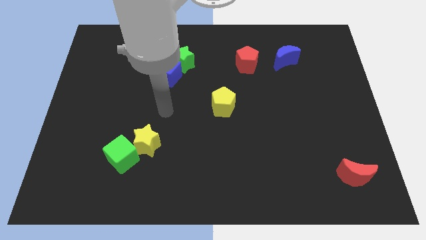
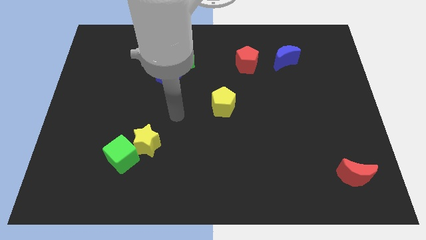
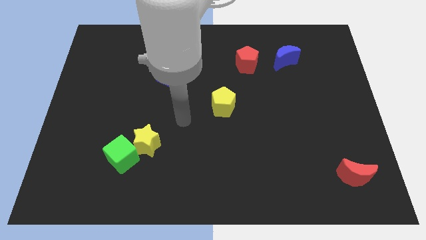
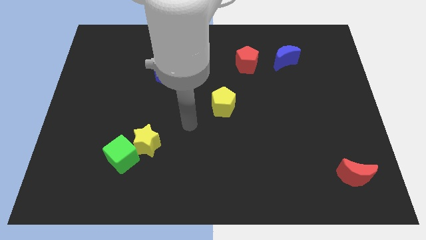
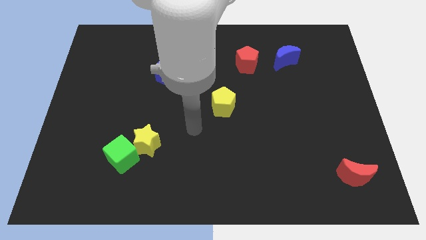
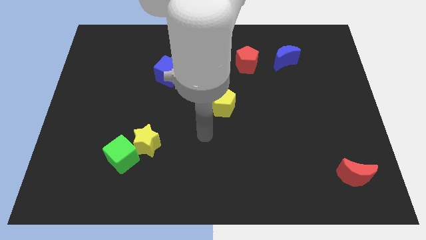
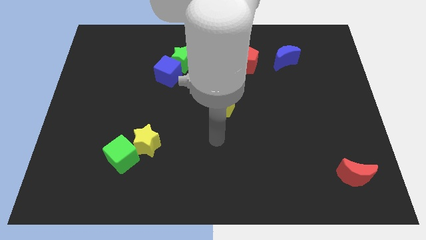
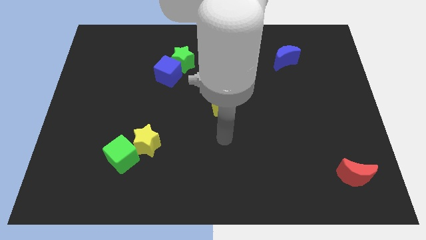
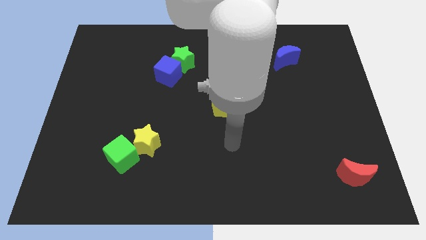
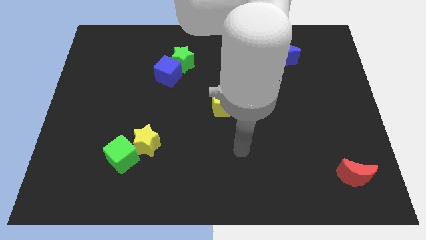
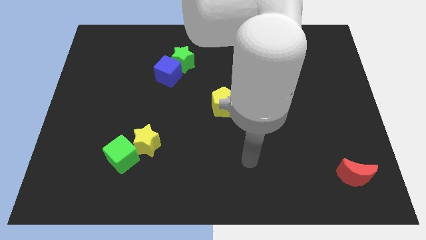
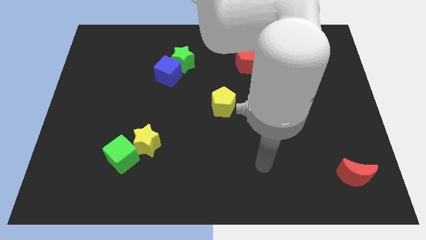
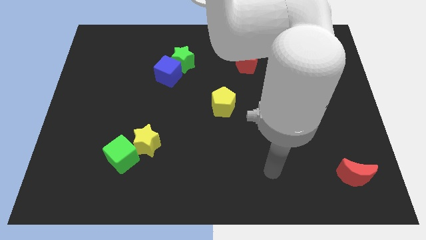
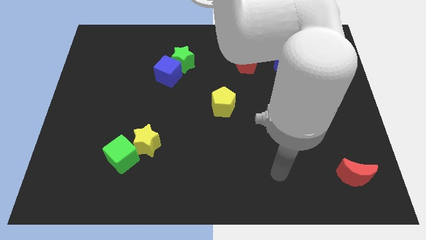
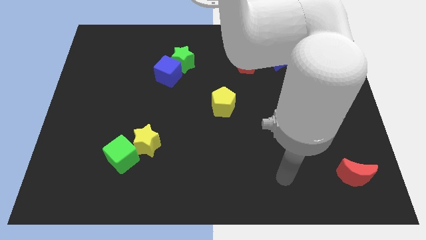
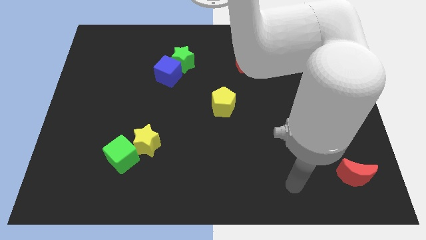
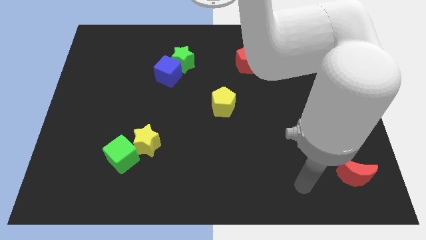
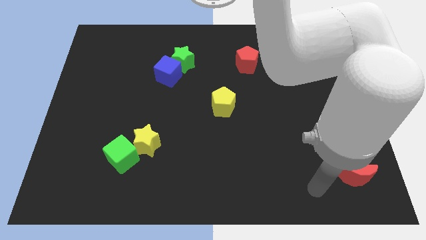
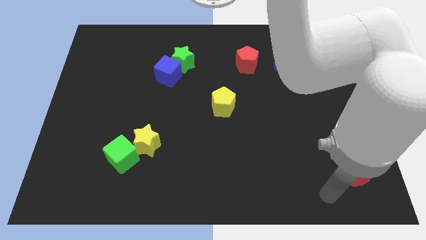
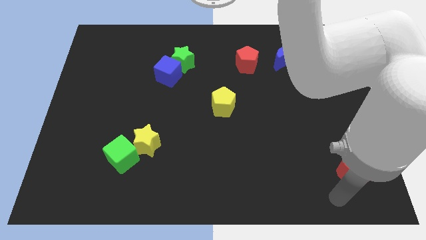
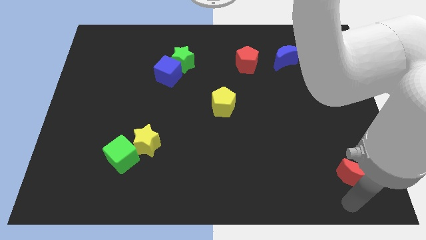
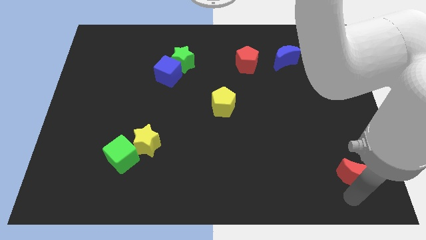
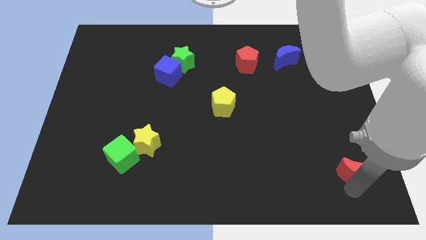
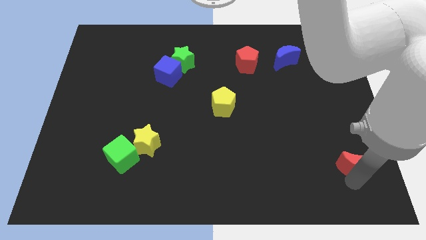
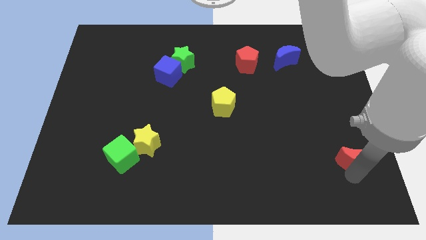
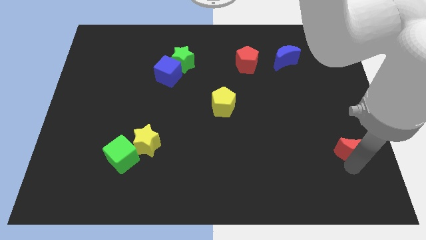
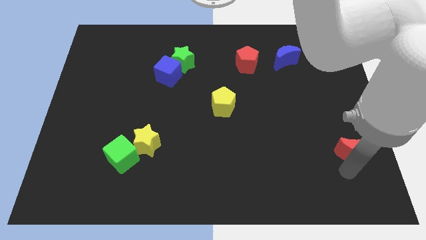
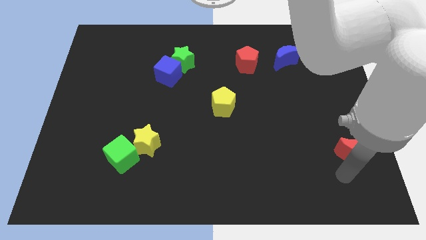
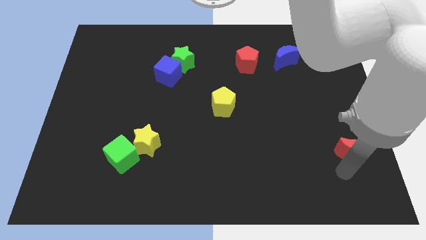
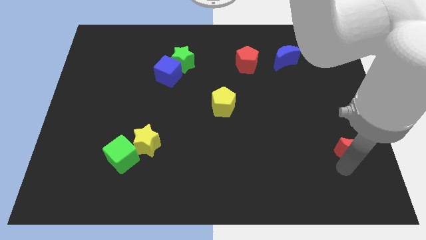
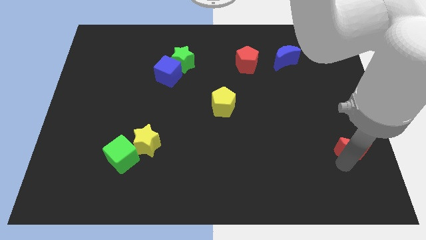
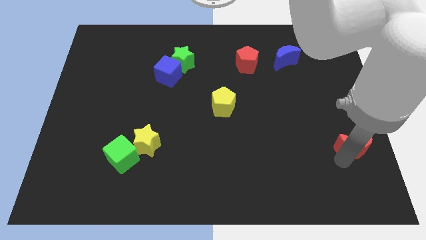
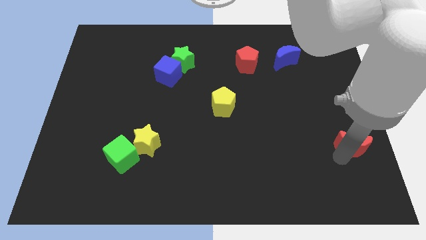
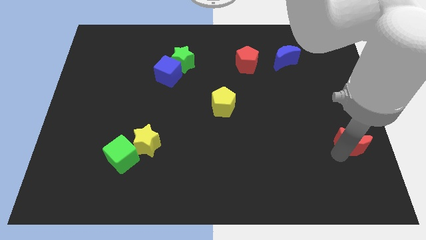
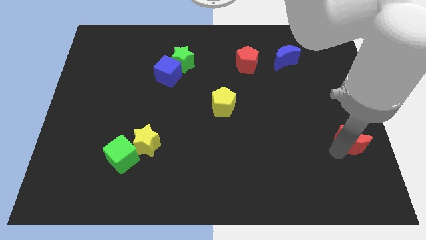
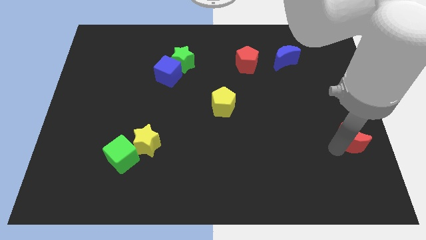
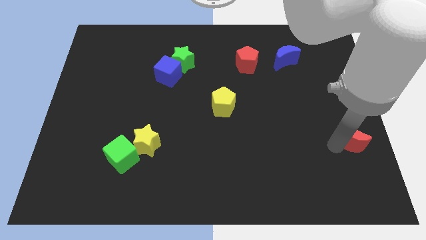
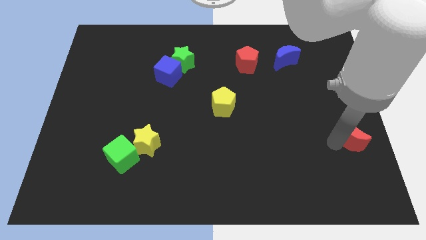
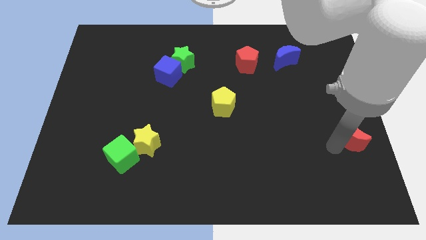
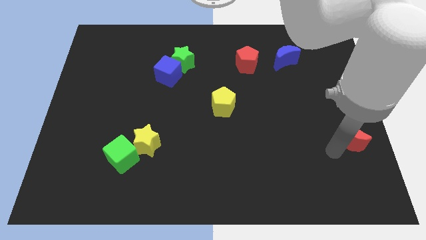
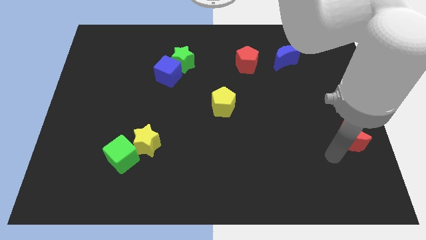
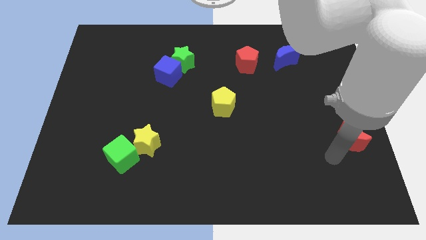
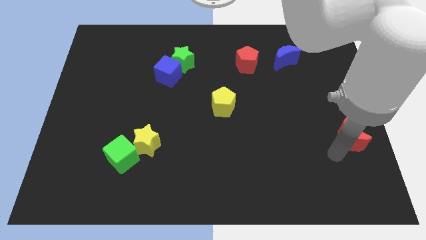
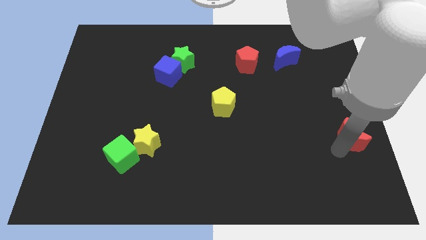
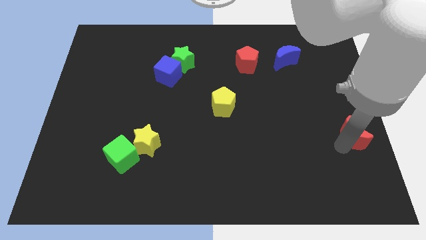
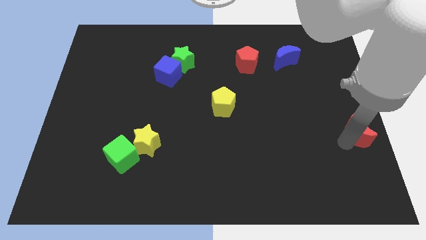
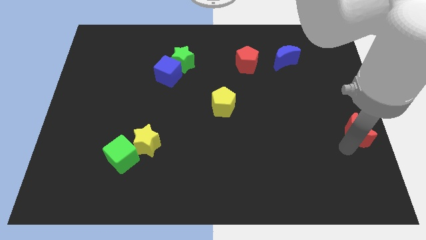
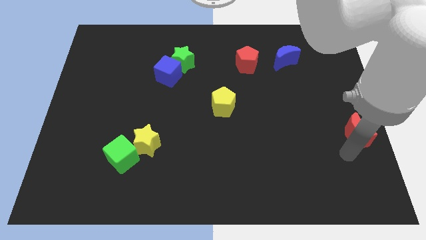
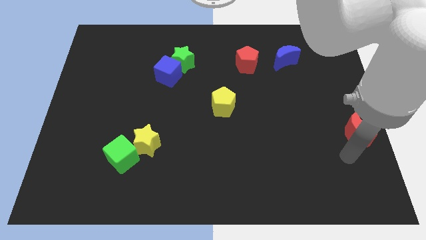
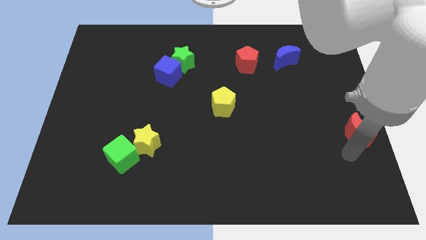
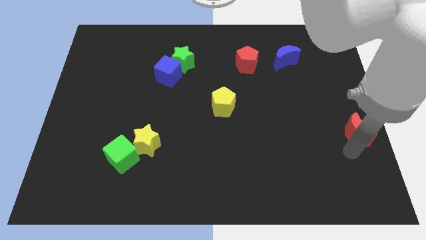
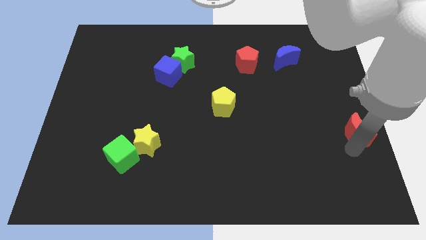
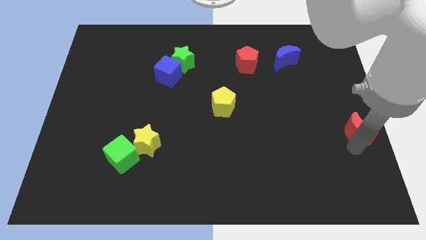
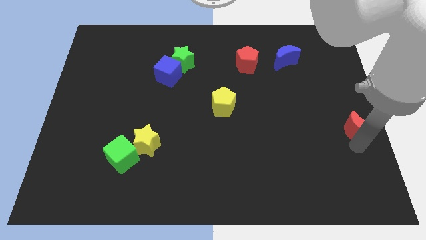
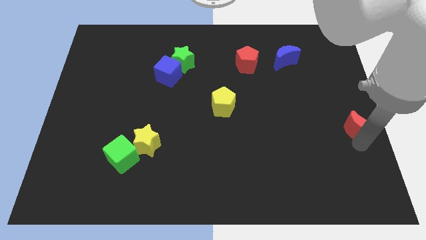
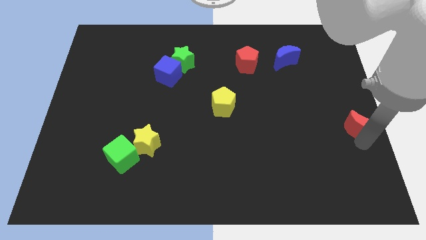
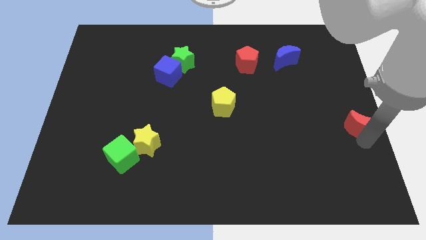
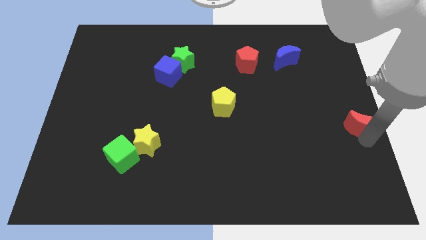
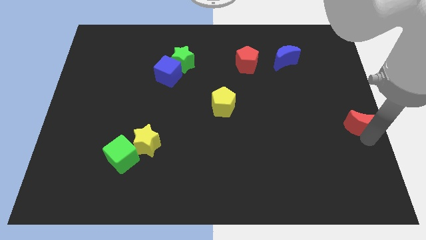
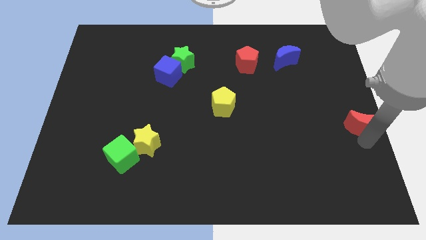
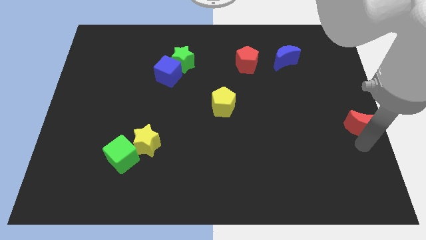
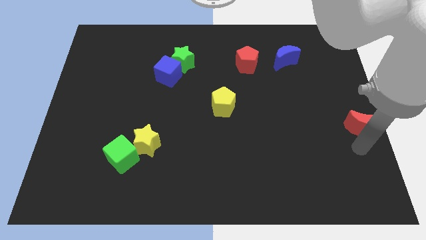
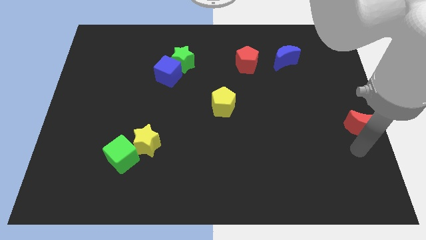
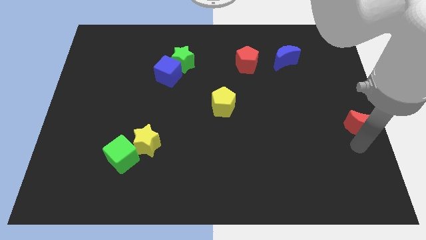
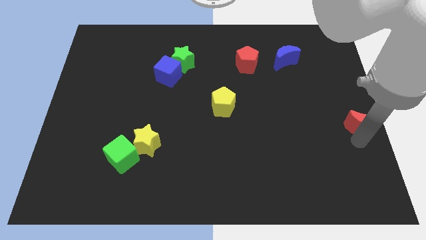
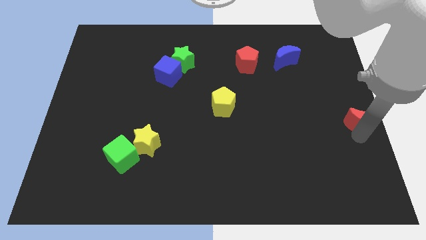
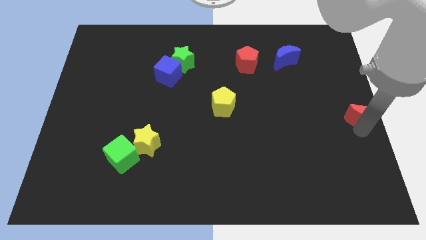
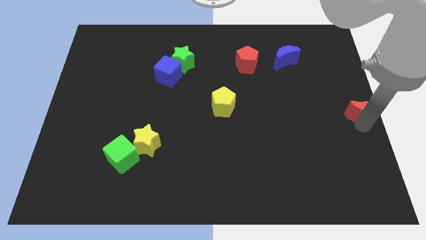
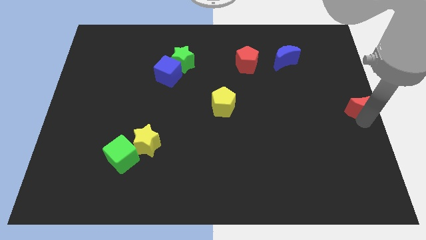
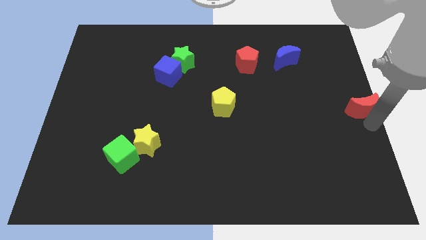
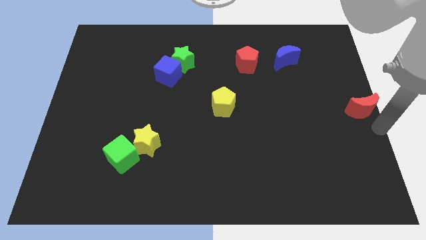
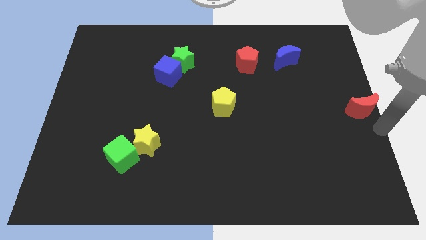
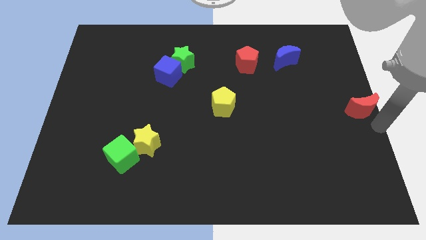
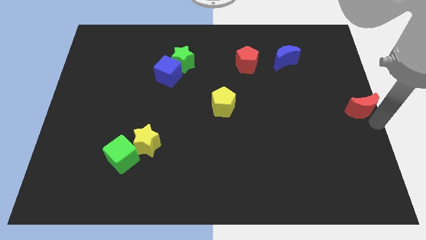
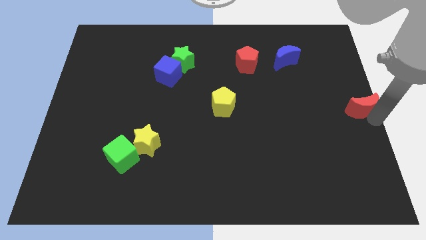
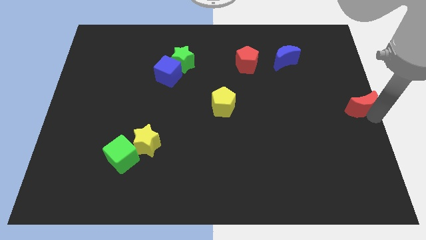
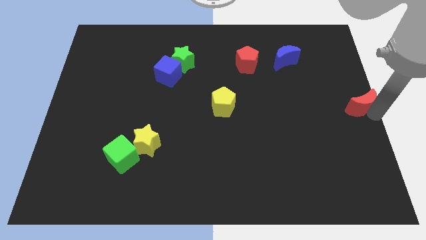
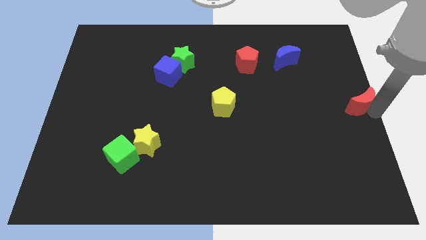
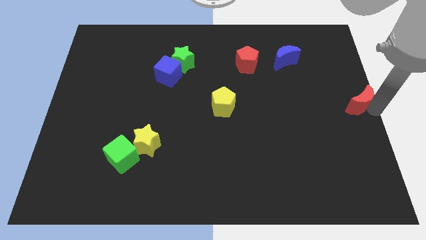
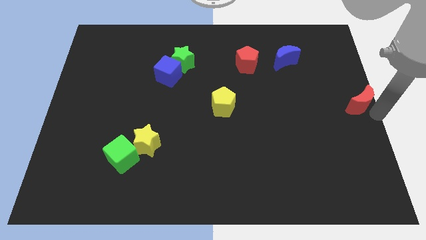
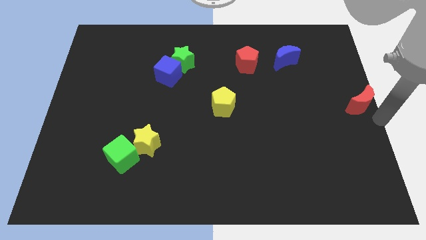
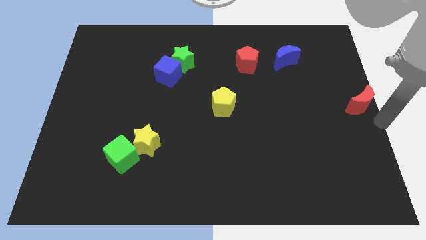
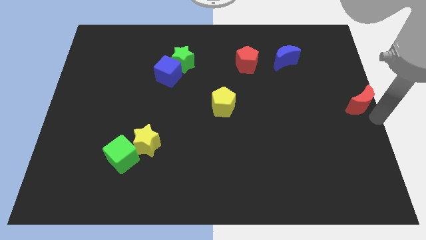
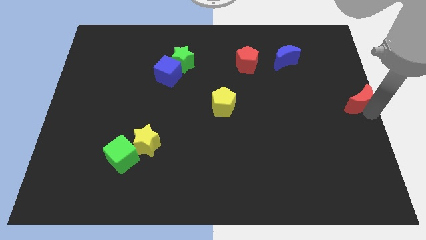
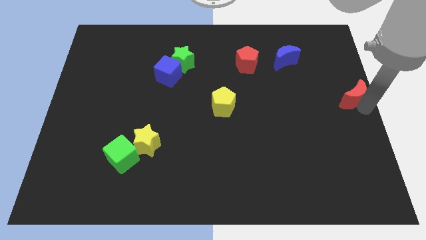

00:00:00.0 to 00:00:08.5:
move the red moon upwards
